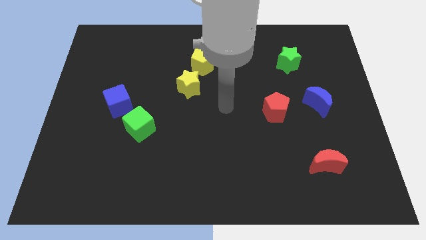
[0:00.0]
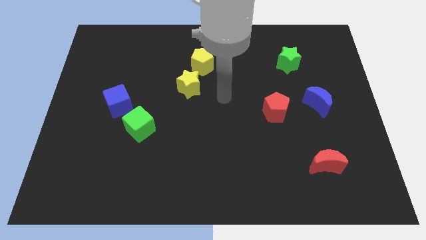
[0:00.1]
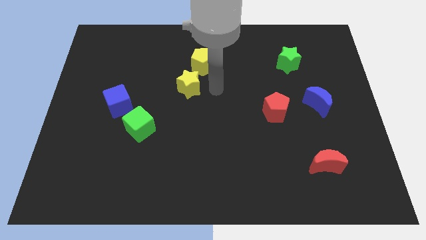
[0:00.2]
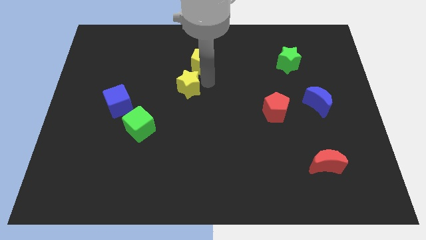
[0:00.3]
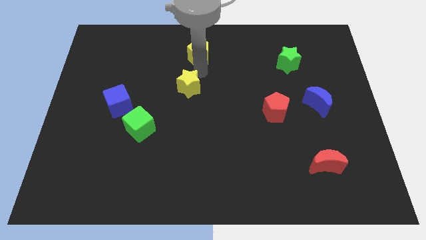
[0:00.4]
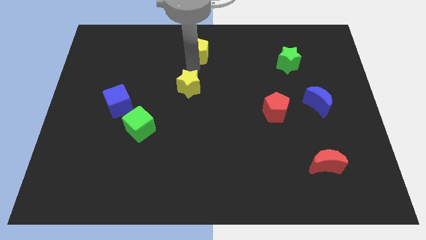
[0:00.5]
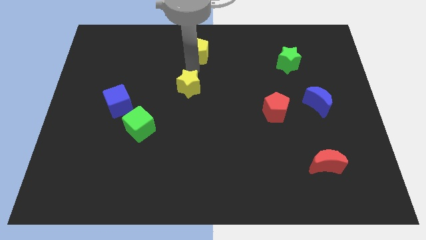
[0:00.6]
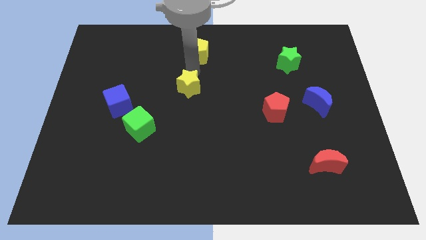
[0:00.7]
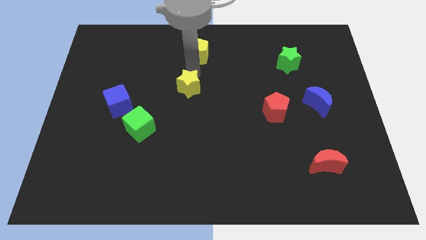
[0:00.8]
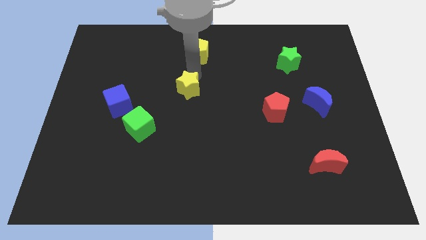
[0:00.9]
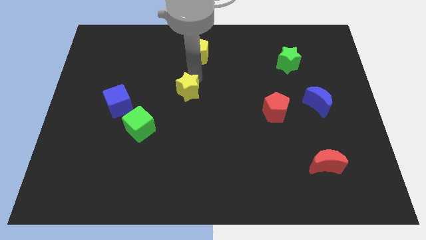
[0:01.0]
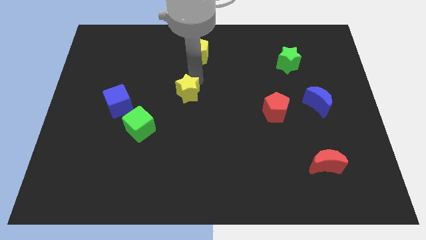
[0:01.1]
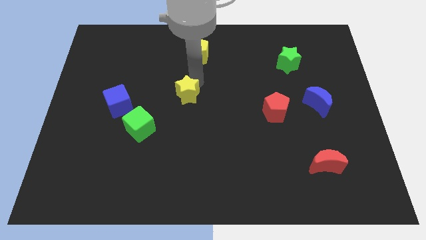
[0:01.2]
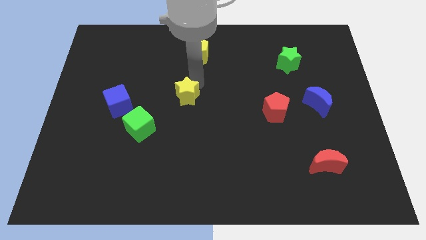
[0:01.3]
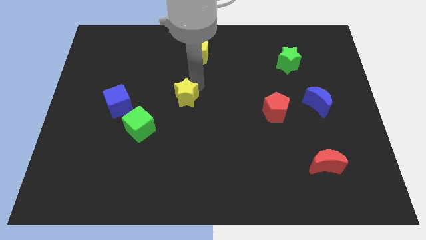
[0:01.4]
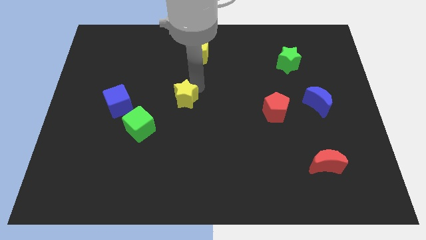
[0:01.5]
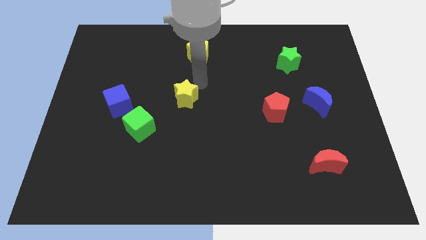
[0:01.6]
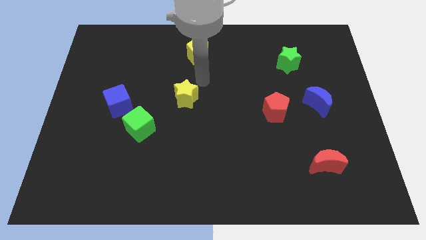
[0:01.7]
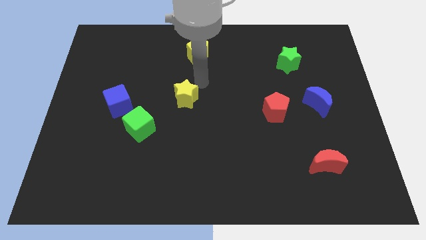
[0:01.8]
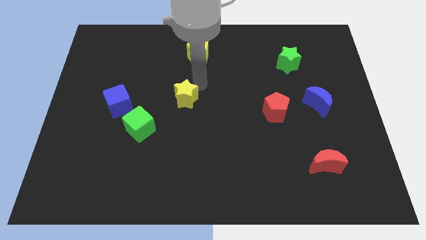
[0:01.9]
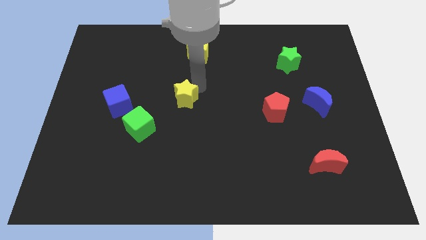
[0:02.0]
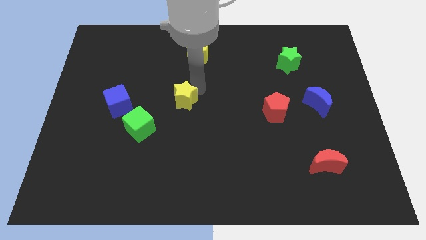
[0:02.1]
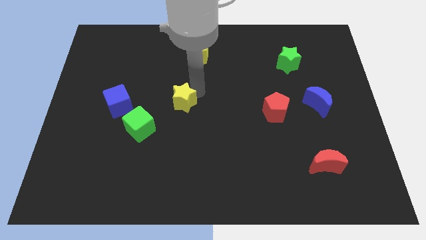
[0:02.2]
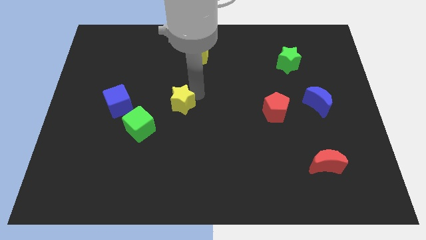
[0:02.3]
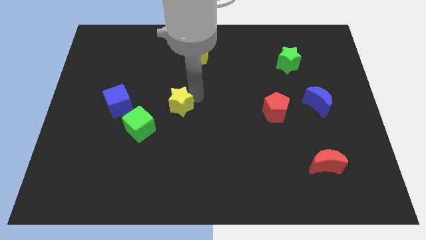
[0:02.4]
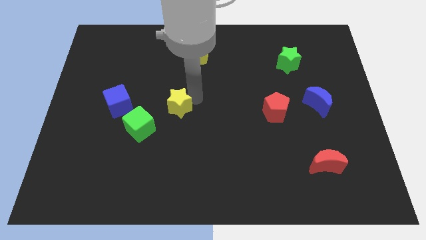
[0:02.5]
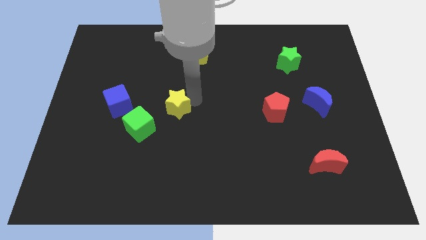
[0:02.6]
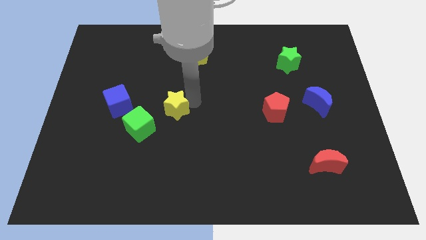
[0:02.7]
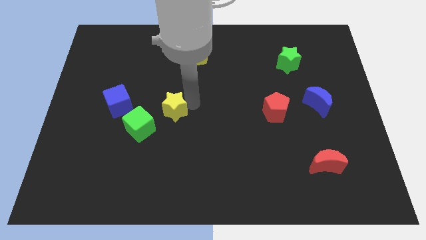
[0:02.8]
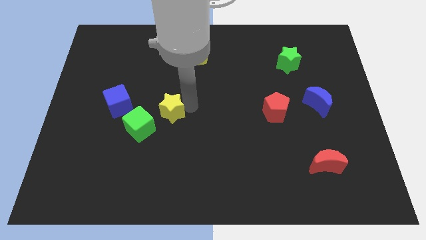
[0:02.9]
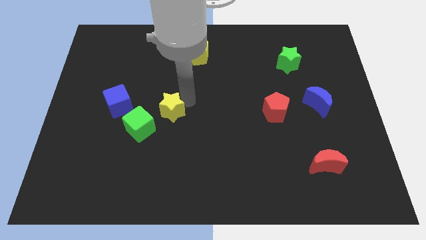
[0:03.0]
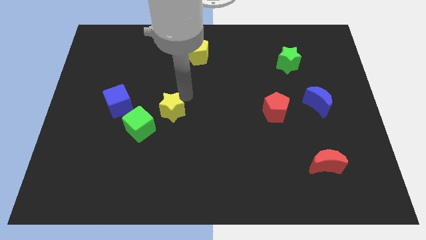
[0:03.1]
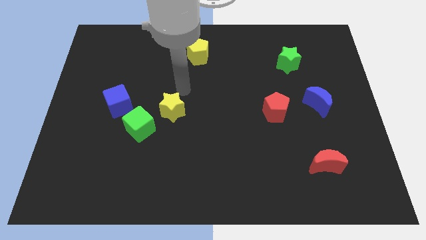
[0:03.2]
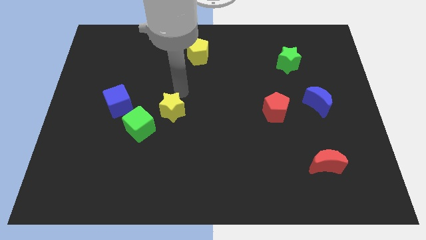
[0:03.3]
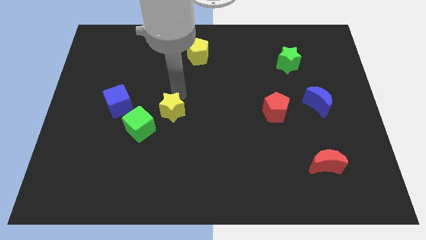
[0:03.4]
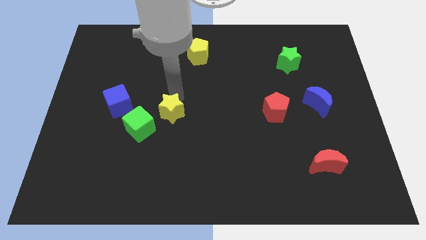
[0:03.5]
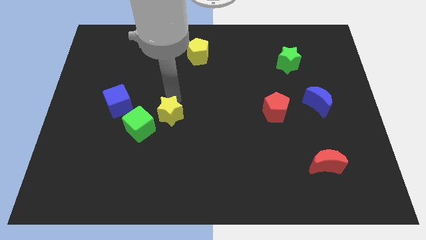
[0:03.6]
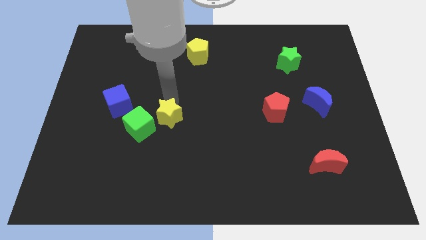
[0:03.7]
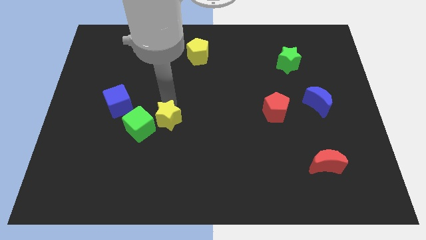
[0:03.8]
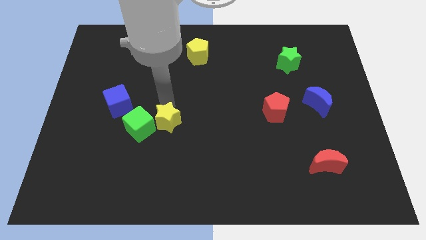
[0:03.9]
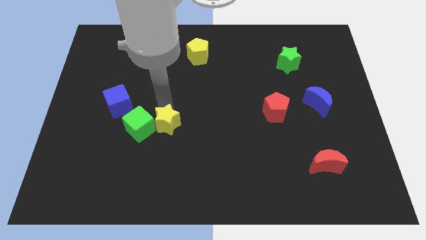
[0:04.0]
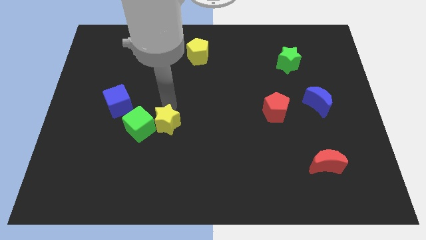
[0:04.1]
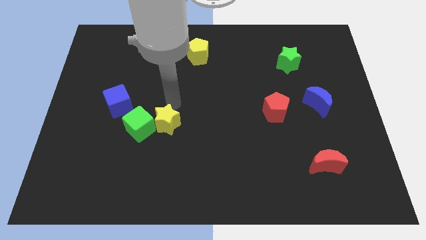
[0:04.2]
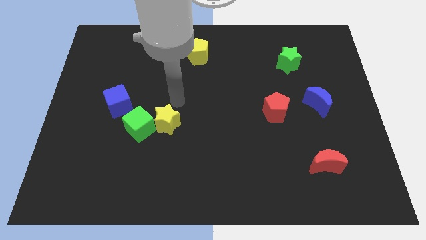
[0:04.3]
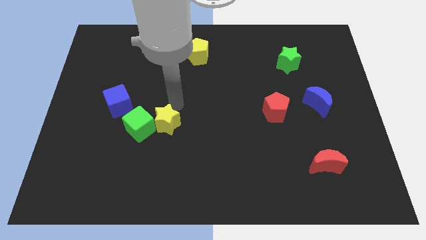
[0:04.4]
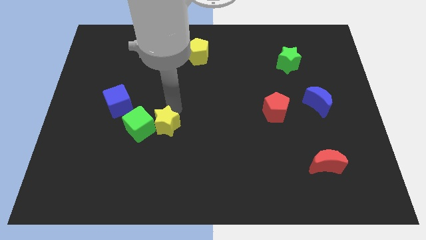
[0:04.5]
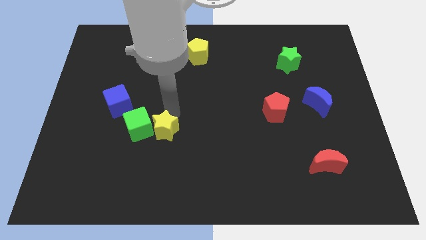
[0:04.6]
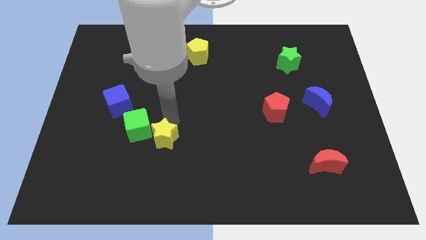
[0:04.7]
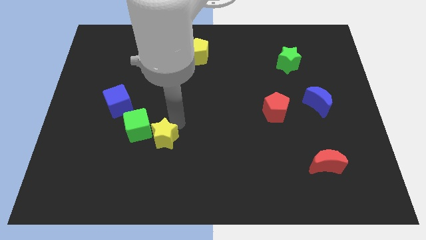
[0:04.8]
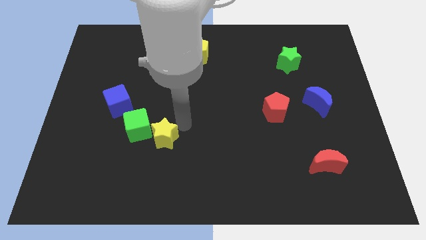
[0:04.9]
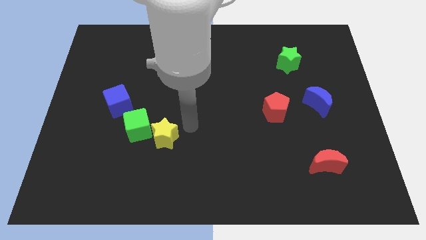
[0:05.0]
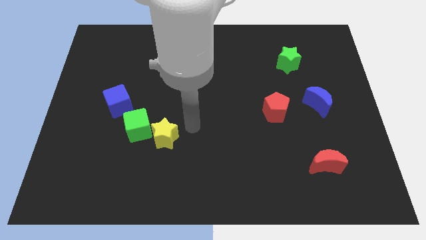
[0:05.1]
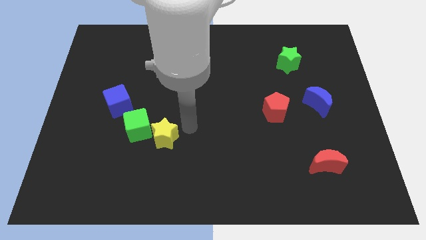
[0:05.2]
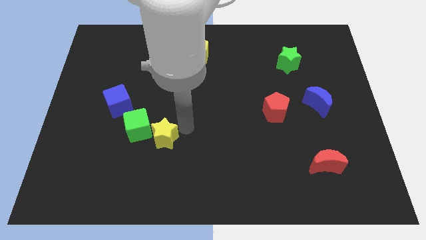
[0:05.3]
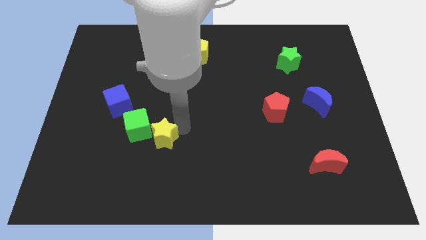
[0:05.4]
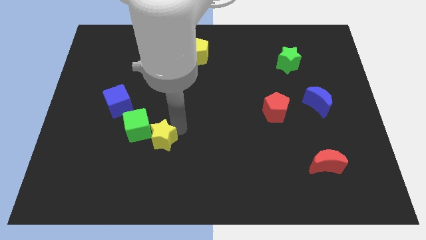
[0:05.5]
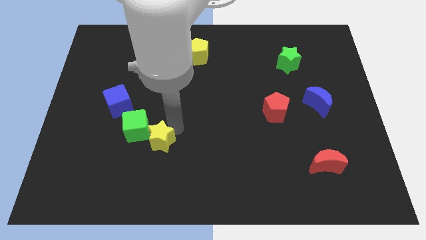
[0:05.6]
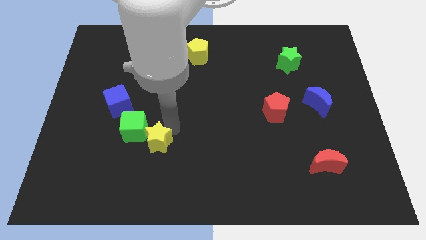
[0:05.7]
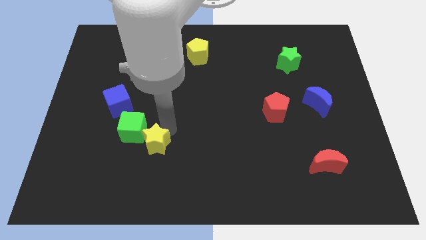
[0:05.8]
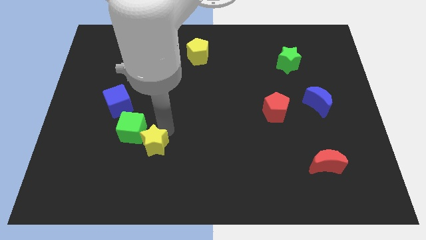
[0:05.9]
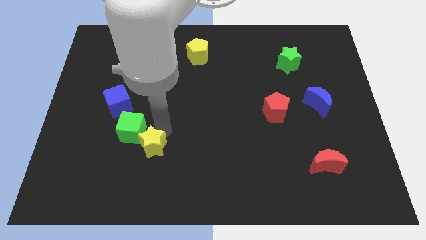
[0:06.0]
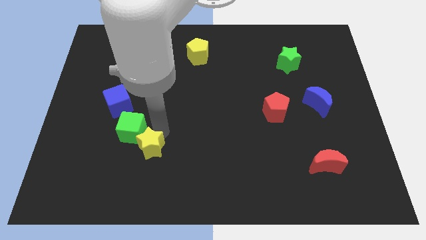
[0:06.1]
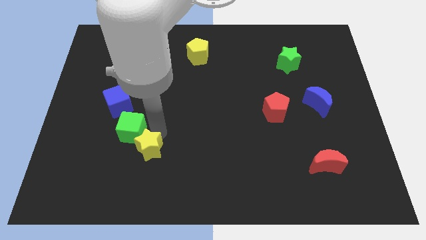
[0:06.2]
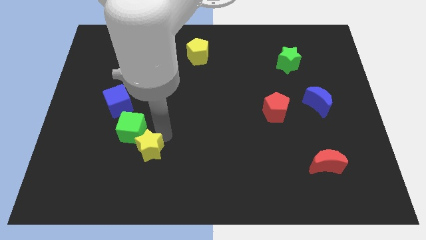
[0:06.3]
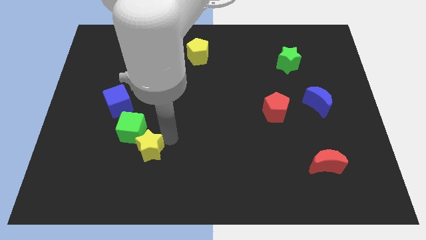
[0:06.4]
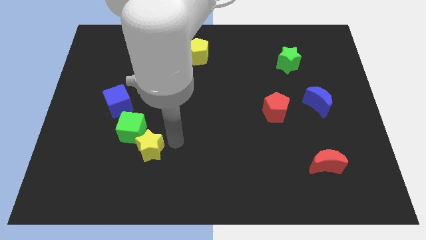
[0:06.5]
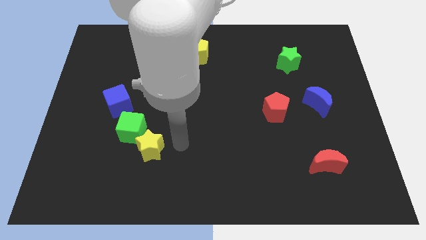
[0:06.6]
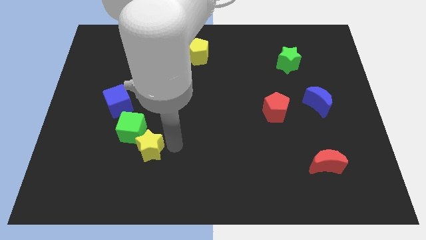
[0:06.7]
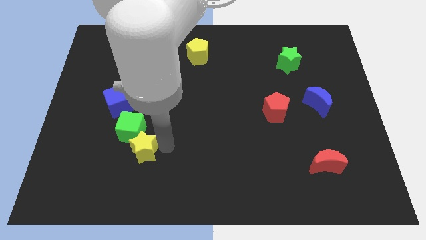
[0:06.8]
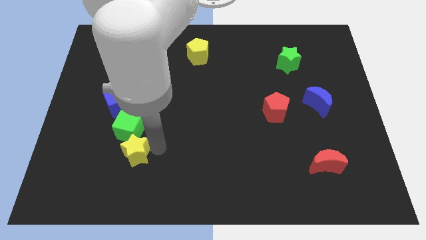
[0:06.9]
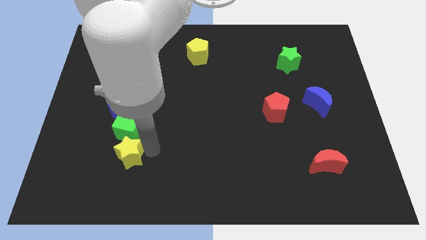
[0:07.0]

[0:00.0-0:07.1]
slide the yellow star diagonally downwards and left

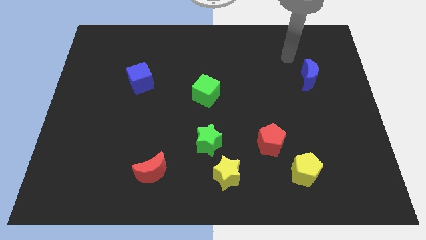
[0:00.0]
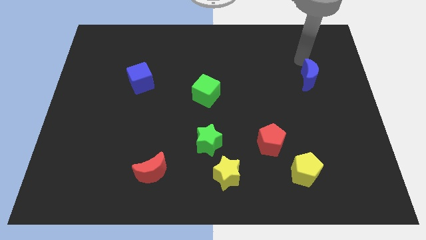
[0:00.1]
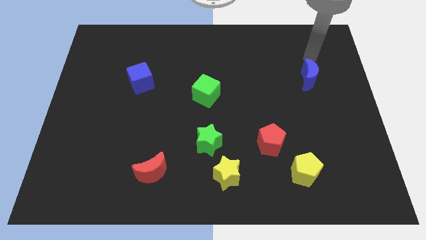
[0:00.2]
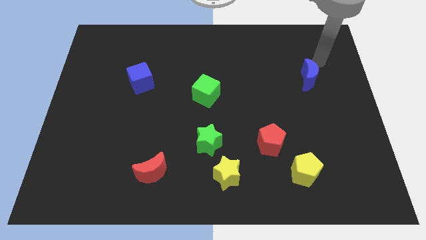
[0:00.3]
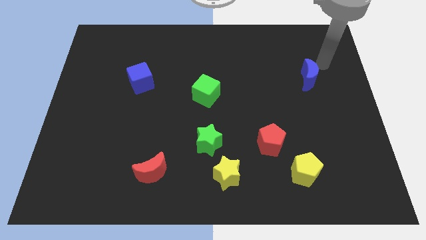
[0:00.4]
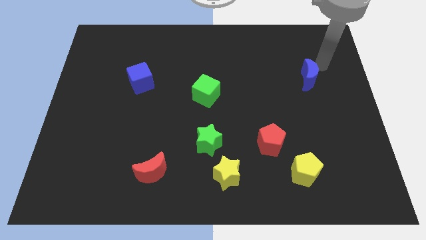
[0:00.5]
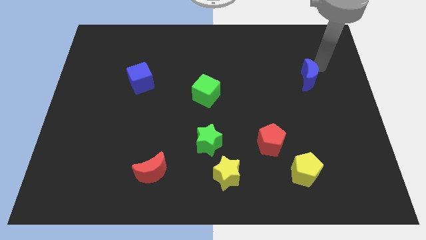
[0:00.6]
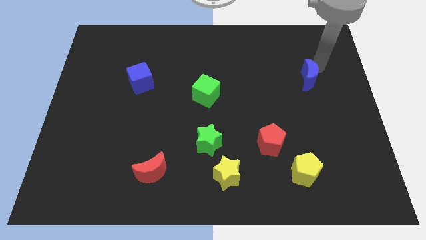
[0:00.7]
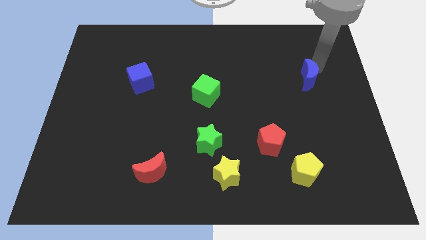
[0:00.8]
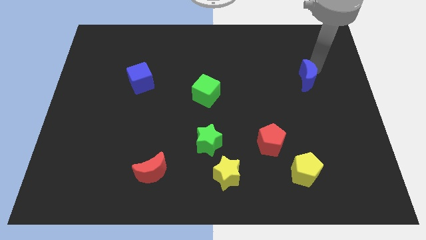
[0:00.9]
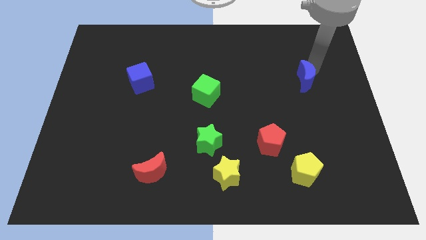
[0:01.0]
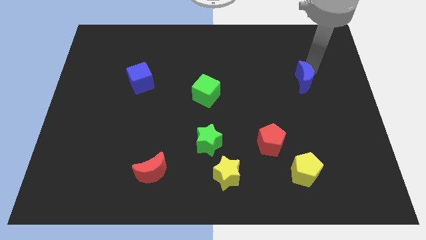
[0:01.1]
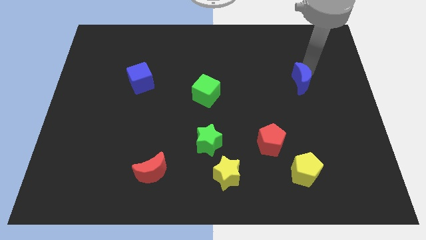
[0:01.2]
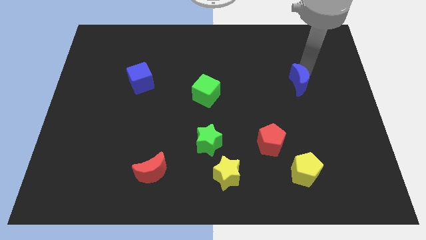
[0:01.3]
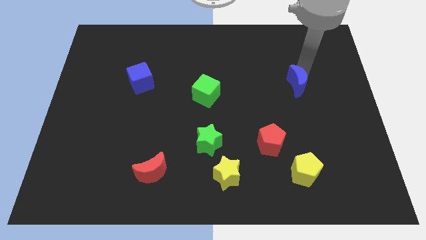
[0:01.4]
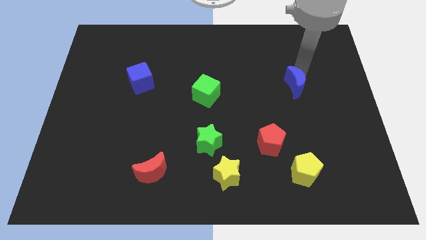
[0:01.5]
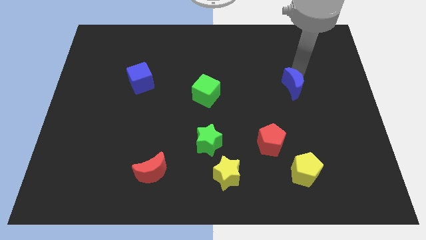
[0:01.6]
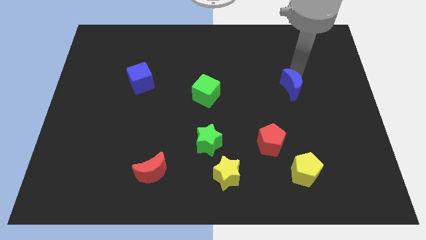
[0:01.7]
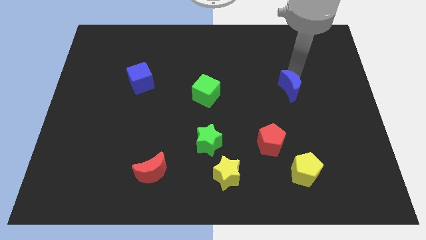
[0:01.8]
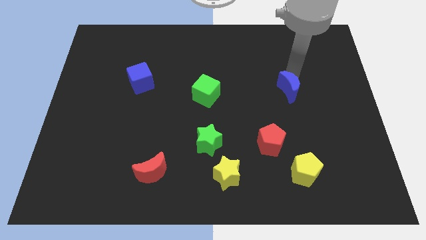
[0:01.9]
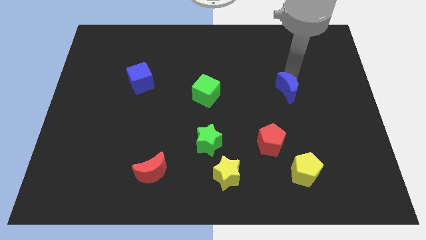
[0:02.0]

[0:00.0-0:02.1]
slide the blue moon a little bit downwards and then to the left
